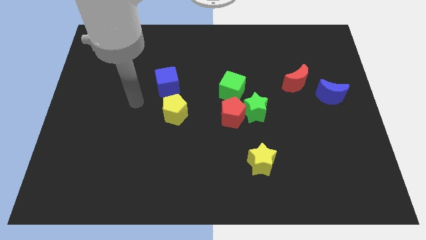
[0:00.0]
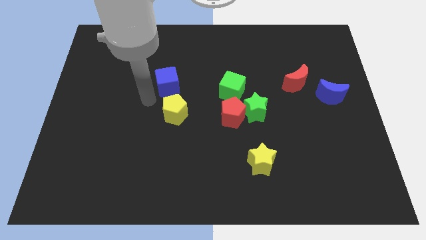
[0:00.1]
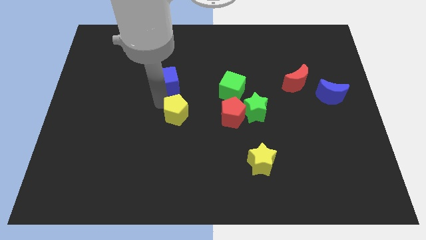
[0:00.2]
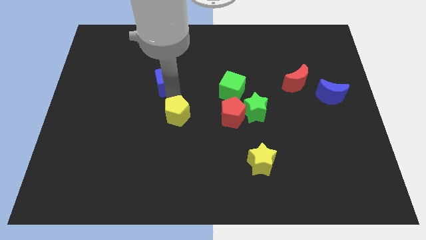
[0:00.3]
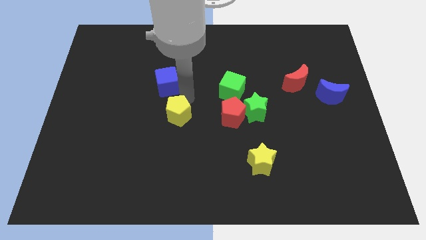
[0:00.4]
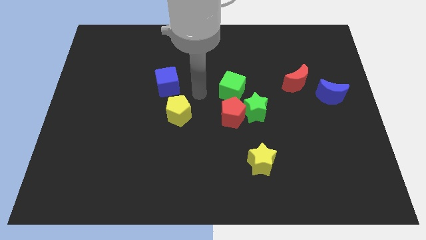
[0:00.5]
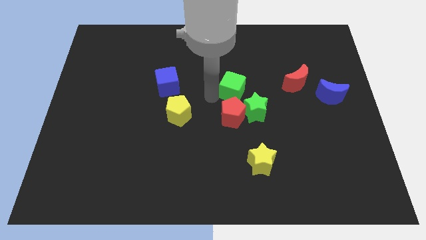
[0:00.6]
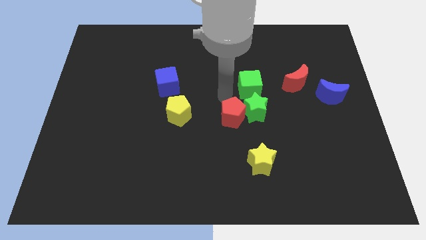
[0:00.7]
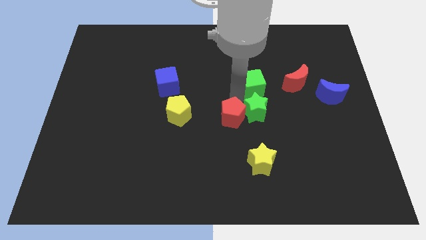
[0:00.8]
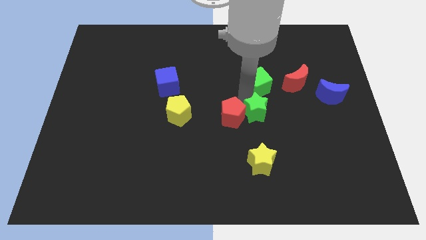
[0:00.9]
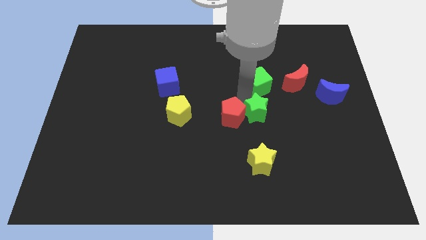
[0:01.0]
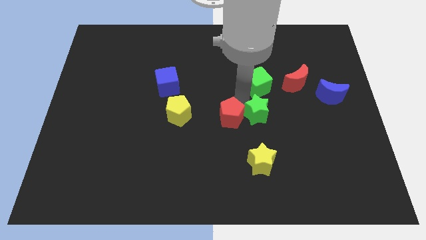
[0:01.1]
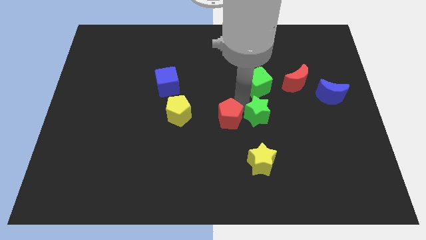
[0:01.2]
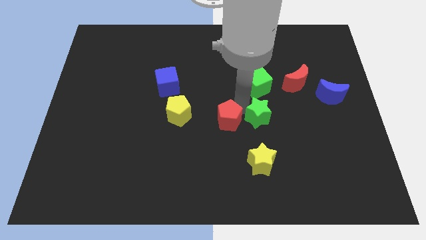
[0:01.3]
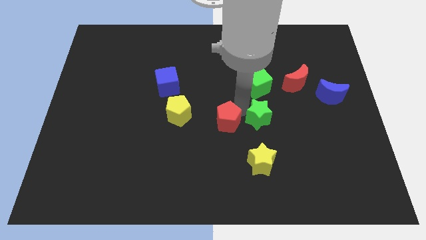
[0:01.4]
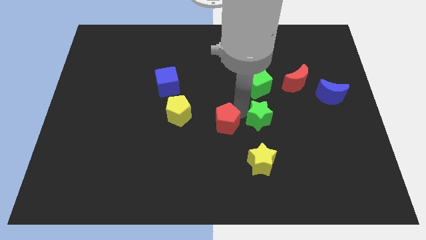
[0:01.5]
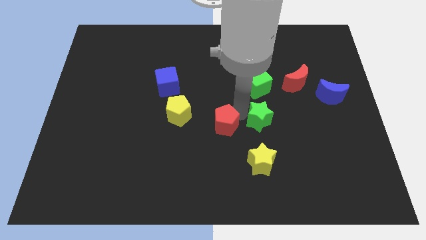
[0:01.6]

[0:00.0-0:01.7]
pull the red pentagon apart from the green star and green cube

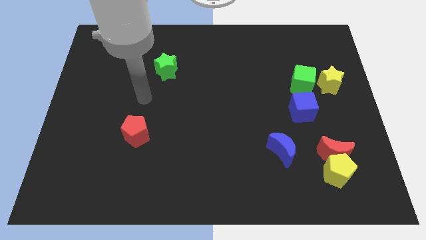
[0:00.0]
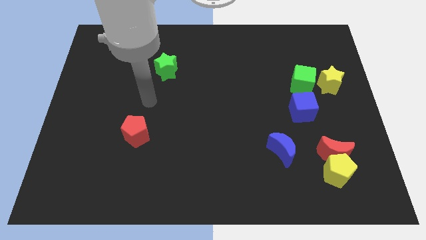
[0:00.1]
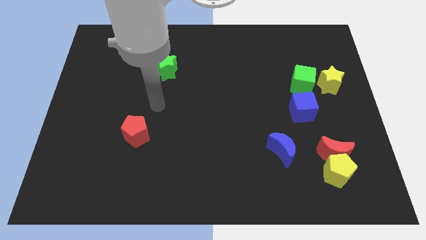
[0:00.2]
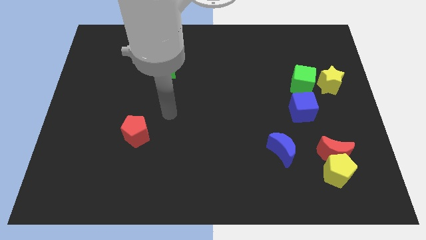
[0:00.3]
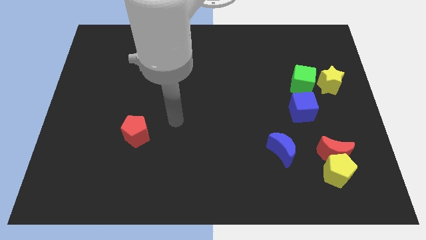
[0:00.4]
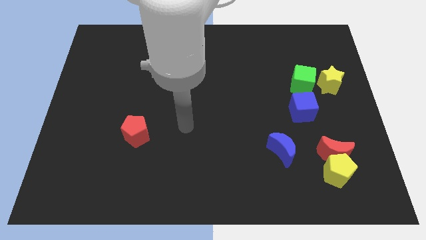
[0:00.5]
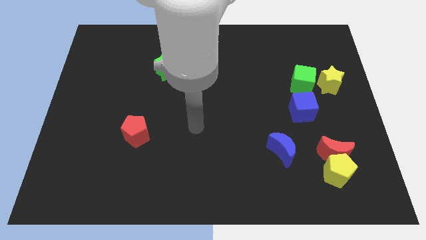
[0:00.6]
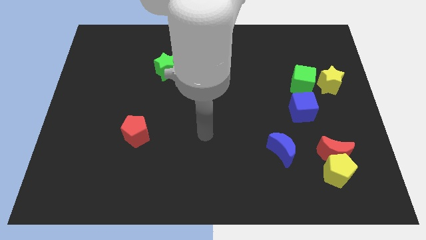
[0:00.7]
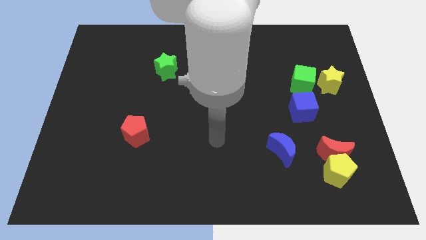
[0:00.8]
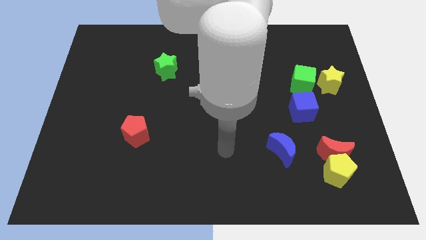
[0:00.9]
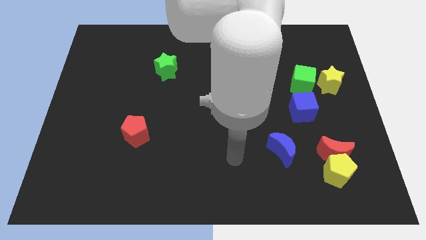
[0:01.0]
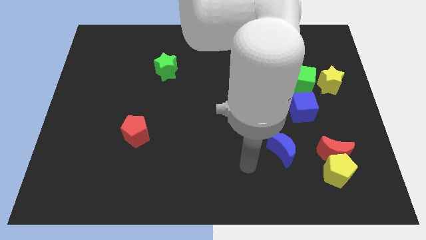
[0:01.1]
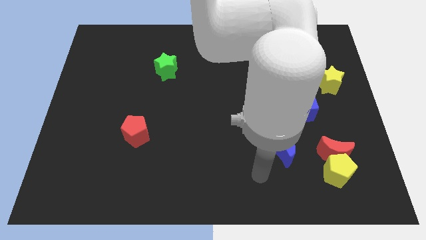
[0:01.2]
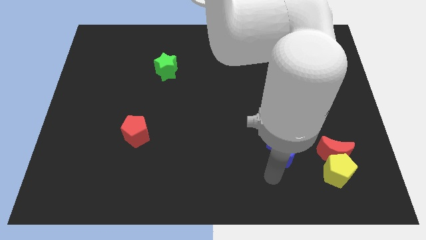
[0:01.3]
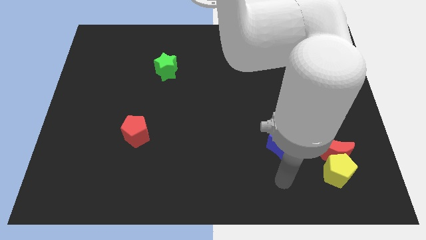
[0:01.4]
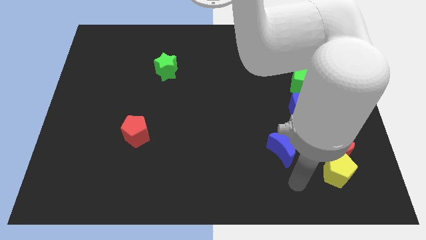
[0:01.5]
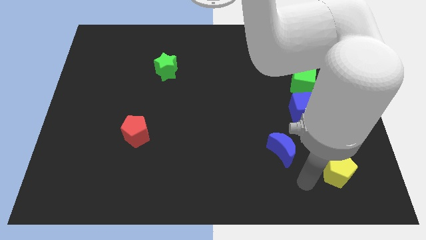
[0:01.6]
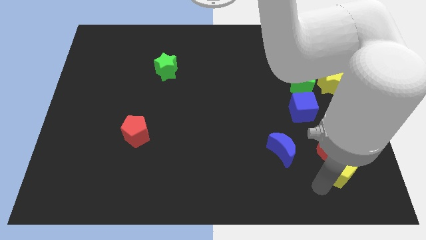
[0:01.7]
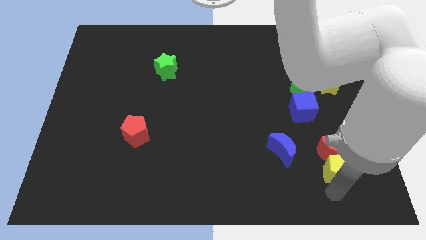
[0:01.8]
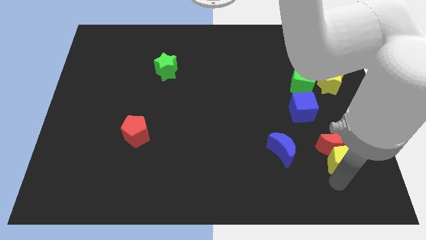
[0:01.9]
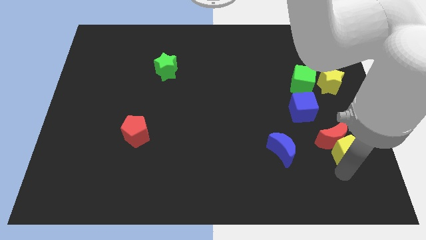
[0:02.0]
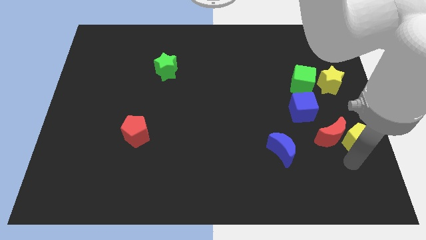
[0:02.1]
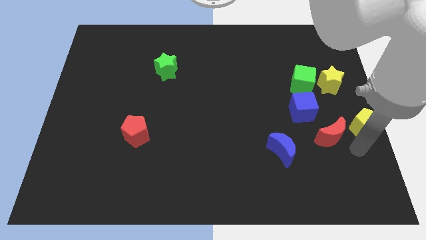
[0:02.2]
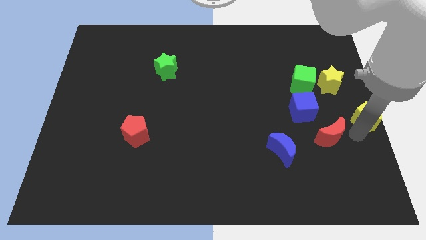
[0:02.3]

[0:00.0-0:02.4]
pull the red moon apart from the yellow pentagon

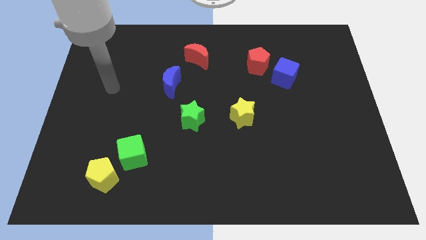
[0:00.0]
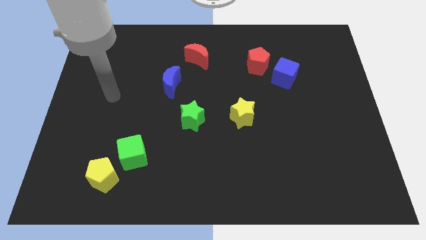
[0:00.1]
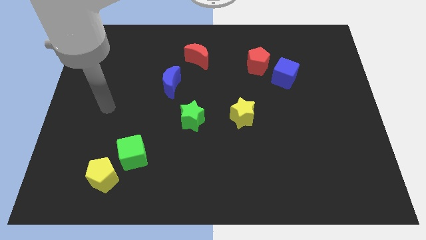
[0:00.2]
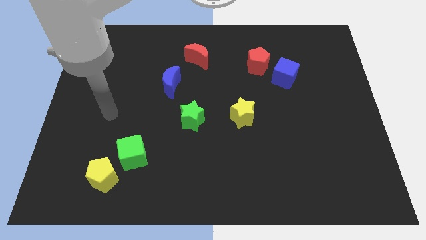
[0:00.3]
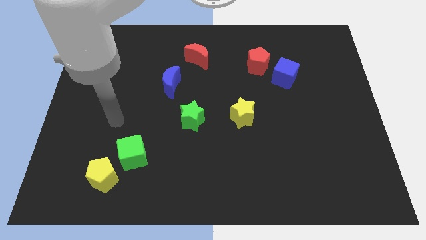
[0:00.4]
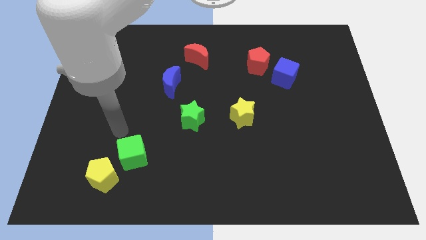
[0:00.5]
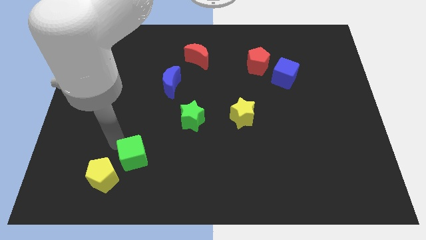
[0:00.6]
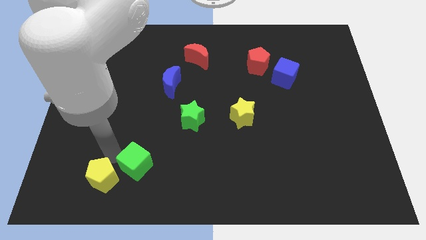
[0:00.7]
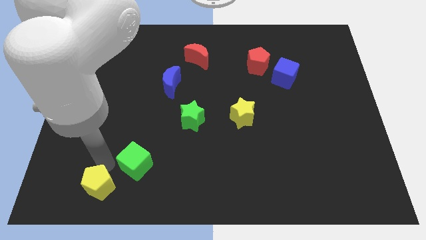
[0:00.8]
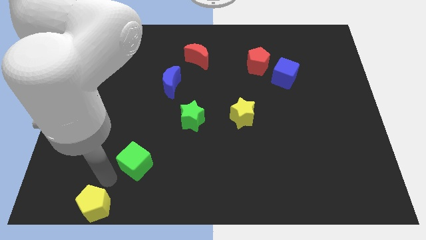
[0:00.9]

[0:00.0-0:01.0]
move the green cube away from the yellow pentagon

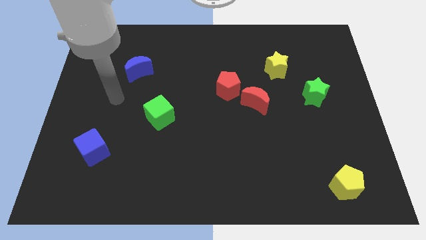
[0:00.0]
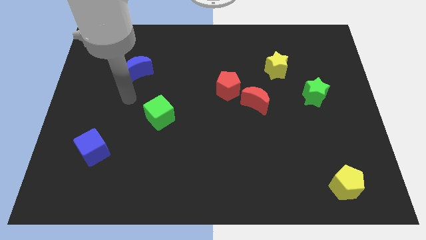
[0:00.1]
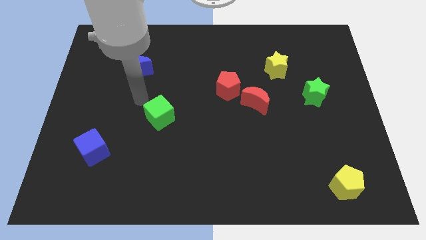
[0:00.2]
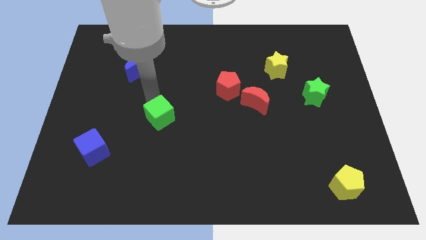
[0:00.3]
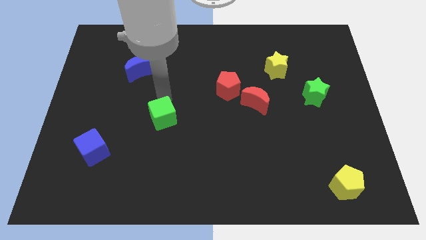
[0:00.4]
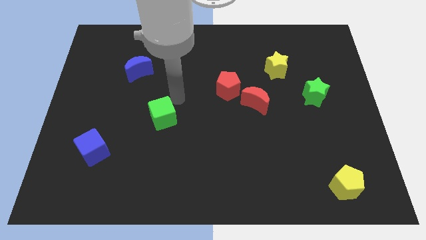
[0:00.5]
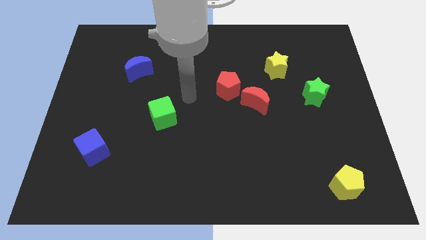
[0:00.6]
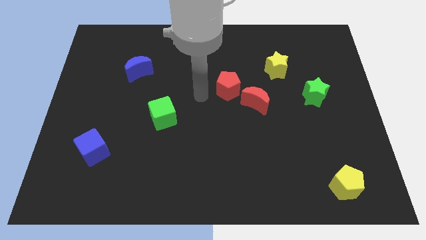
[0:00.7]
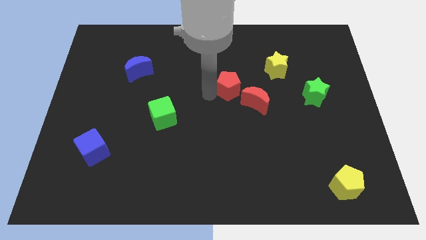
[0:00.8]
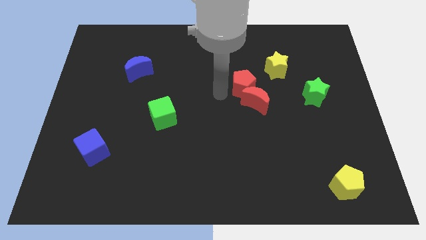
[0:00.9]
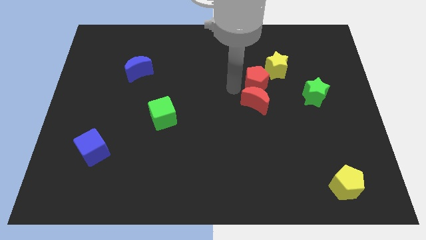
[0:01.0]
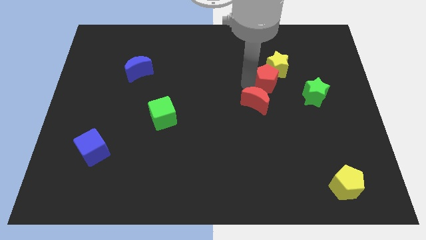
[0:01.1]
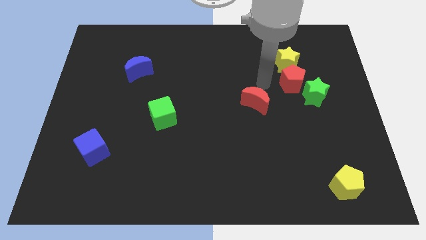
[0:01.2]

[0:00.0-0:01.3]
pull the red moon apart from the red pentagon

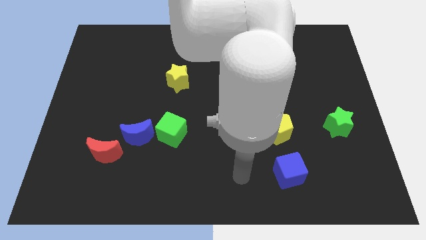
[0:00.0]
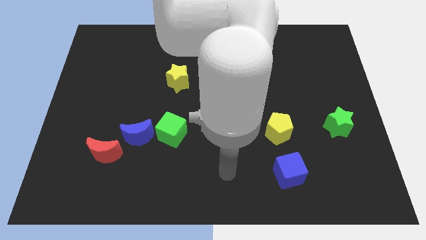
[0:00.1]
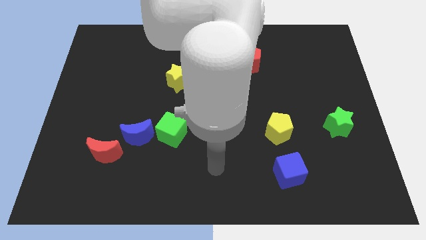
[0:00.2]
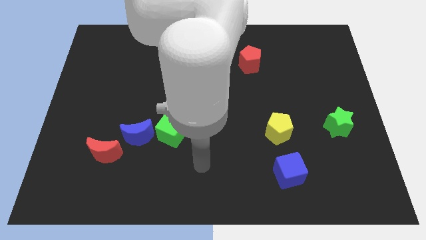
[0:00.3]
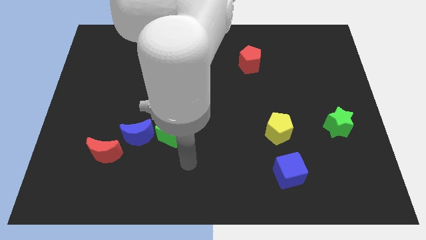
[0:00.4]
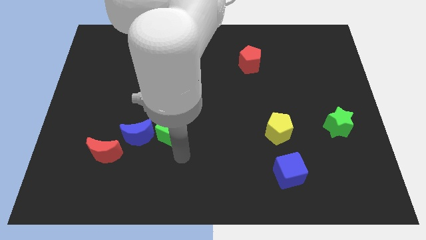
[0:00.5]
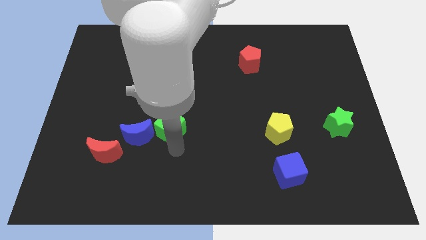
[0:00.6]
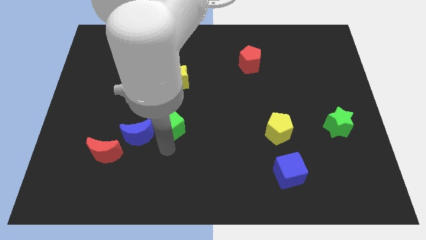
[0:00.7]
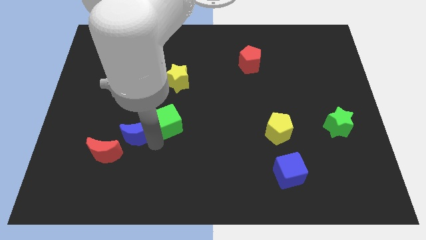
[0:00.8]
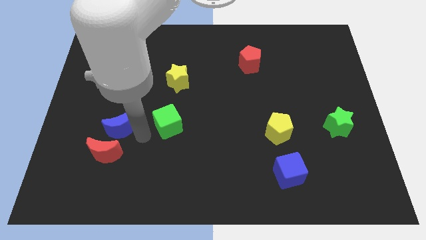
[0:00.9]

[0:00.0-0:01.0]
separate the green cube from the blue moon

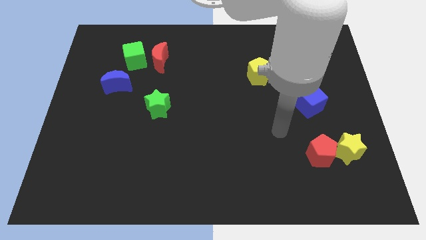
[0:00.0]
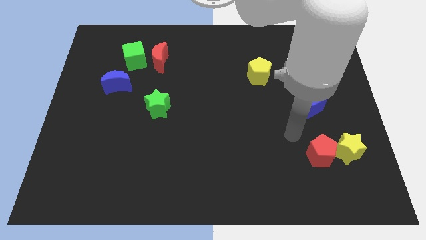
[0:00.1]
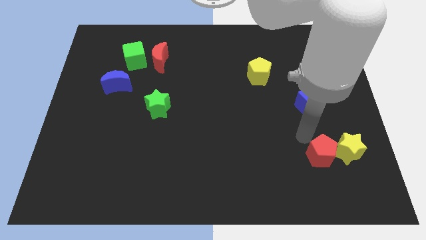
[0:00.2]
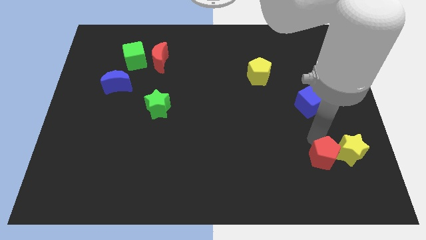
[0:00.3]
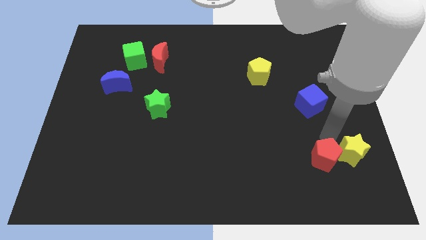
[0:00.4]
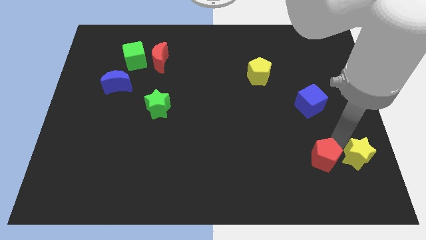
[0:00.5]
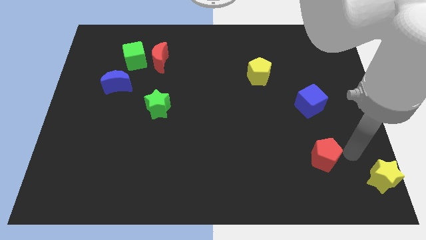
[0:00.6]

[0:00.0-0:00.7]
separate the red pentagon from the yellow star

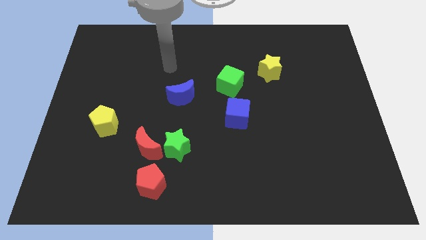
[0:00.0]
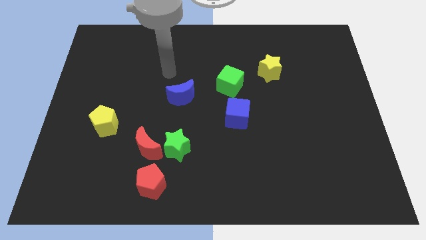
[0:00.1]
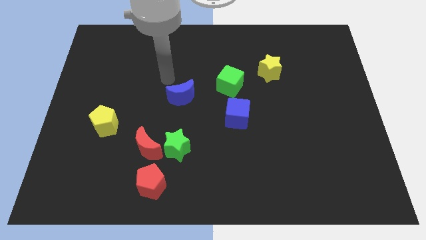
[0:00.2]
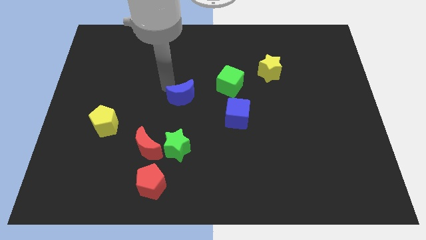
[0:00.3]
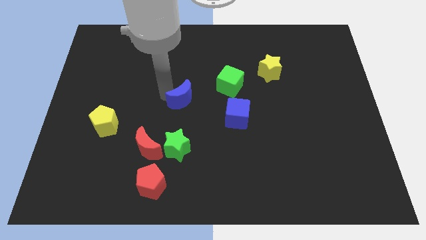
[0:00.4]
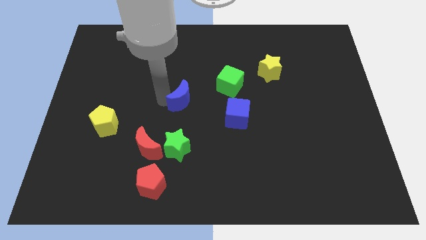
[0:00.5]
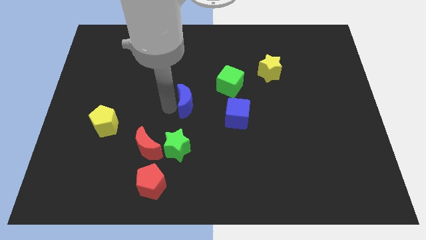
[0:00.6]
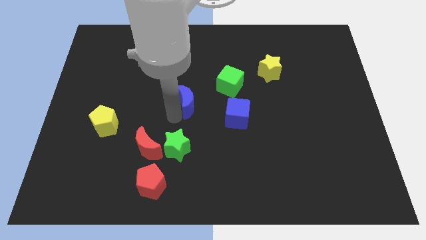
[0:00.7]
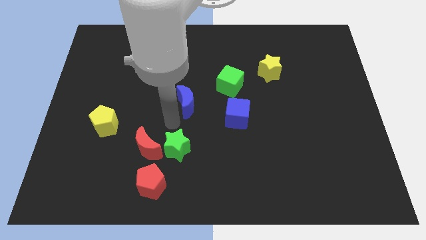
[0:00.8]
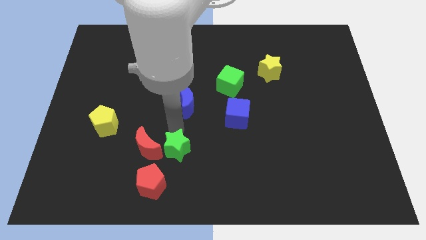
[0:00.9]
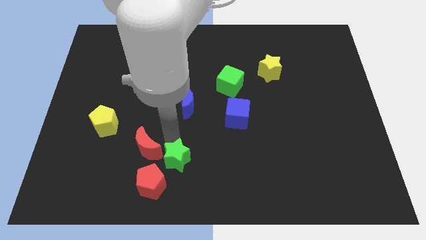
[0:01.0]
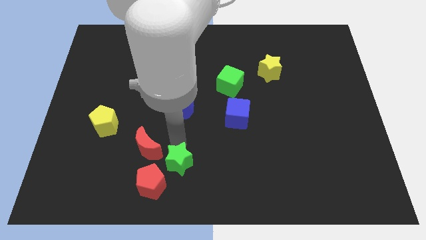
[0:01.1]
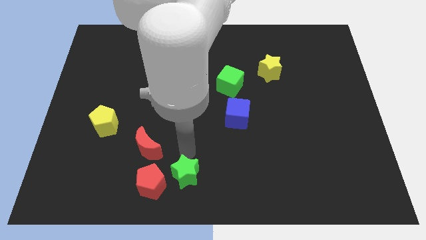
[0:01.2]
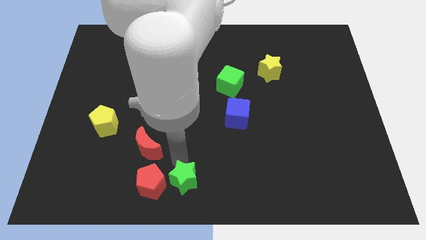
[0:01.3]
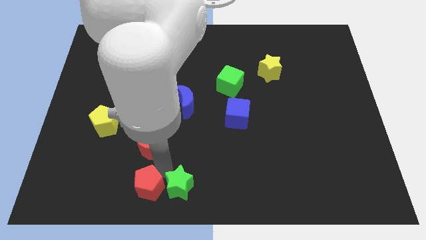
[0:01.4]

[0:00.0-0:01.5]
pull the red moon apart from the green star and red pentagon
